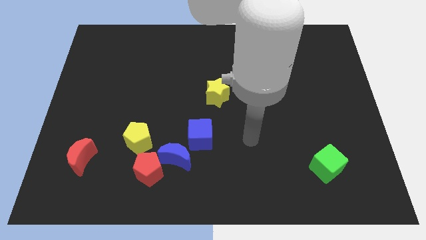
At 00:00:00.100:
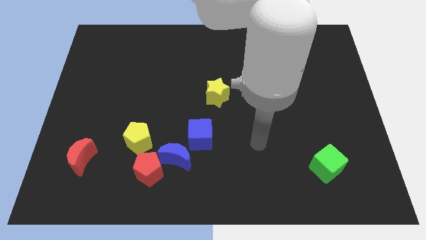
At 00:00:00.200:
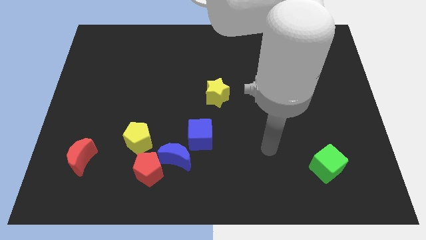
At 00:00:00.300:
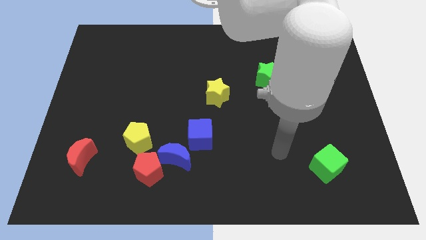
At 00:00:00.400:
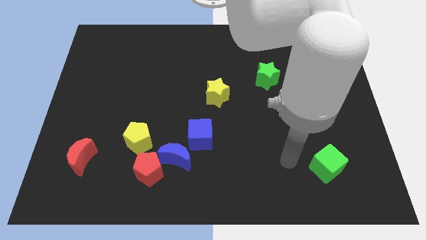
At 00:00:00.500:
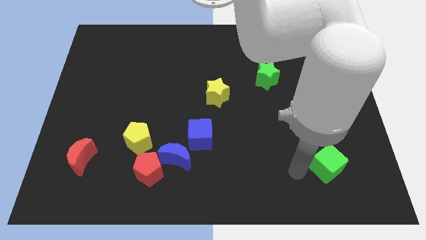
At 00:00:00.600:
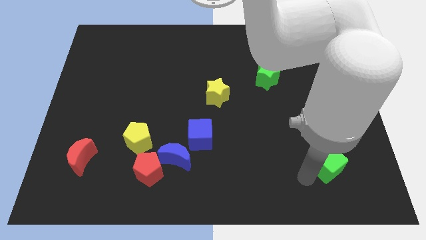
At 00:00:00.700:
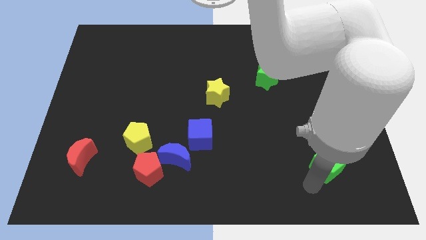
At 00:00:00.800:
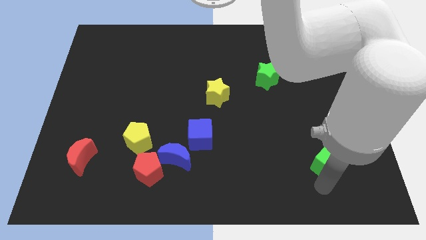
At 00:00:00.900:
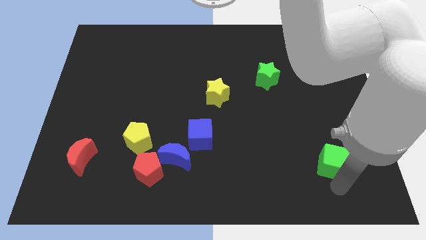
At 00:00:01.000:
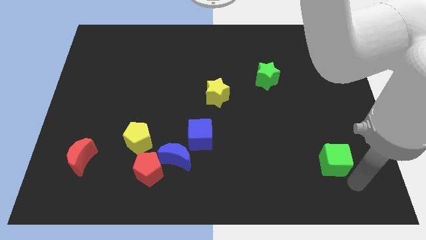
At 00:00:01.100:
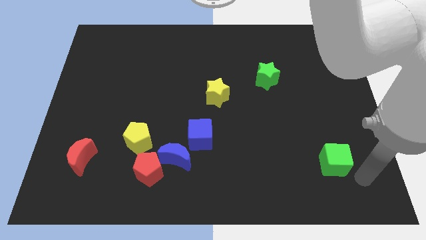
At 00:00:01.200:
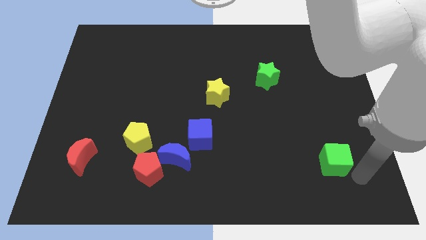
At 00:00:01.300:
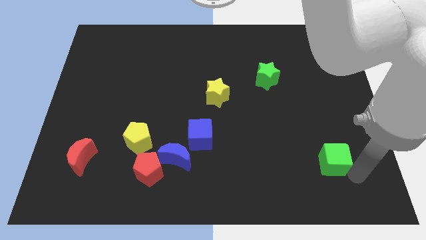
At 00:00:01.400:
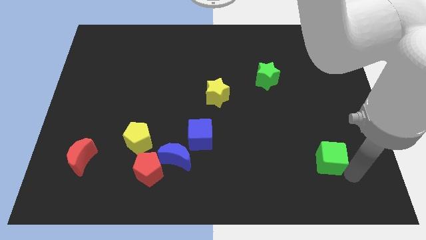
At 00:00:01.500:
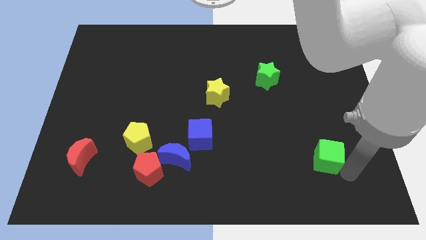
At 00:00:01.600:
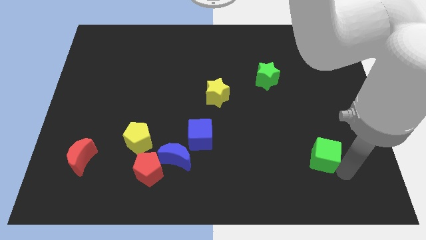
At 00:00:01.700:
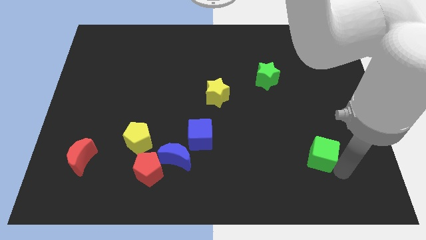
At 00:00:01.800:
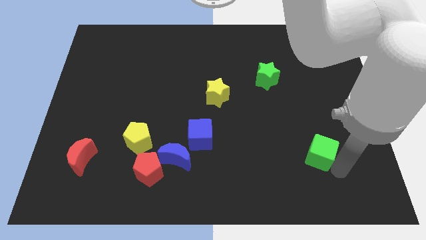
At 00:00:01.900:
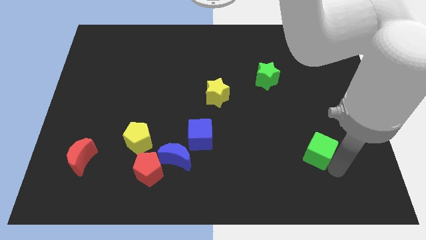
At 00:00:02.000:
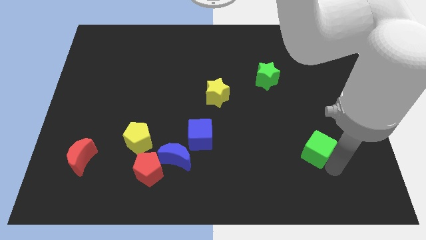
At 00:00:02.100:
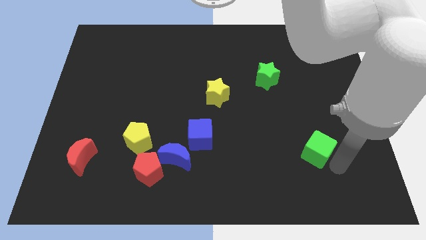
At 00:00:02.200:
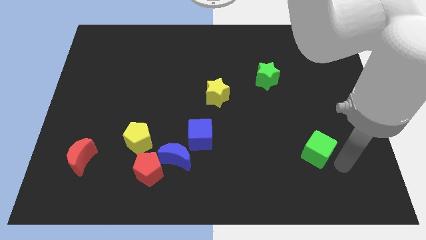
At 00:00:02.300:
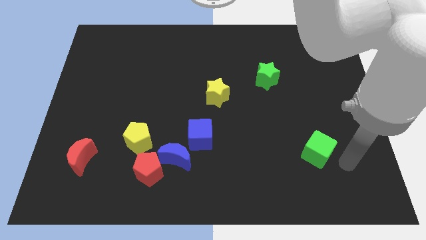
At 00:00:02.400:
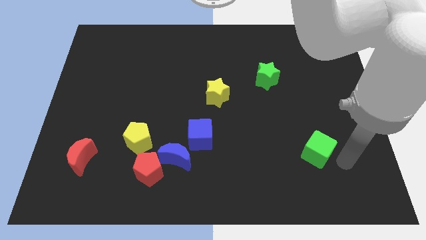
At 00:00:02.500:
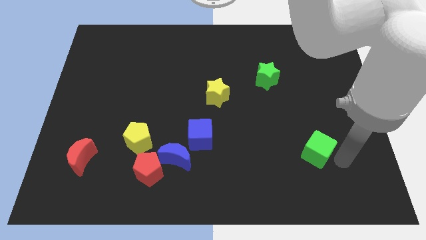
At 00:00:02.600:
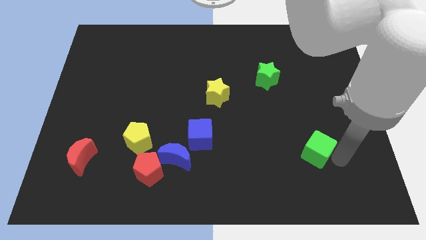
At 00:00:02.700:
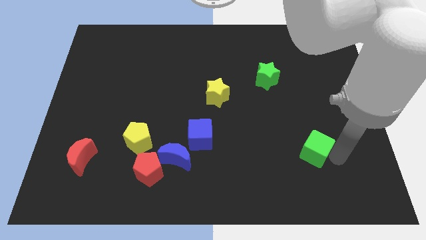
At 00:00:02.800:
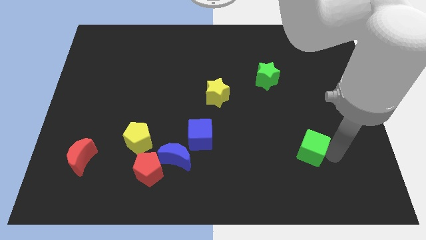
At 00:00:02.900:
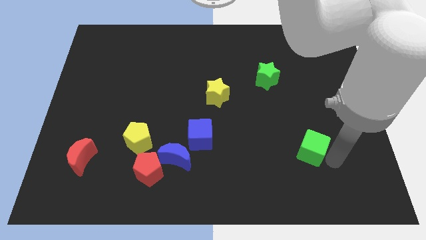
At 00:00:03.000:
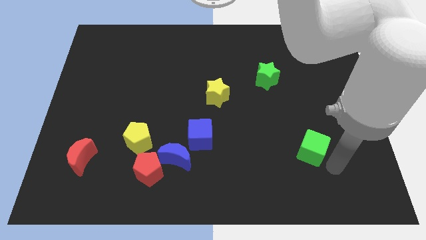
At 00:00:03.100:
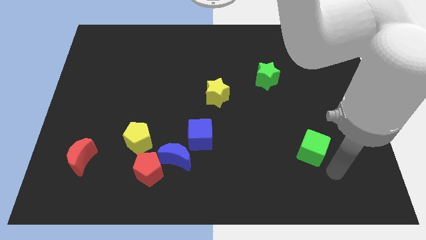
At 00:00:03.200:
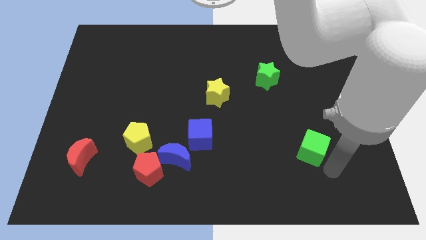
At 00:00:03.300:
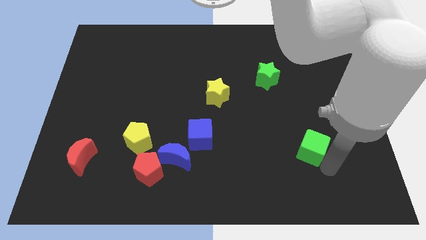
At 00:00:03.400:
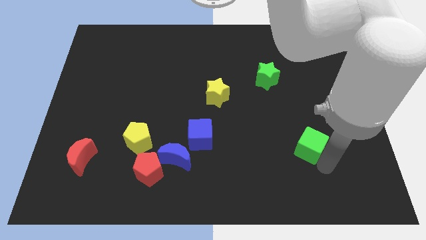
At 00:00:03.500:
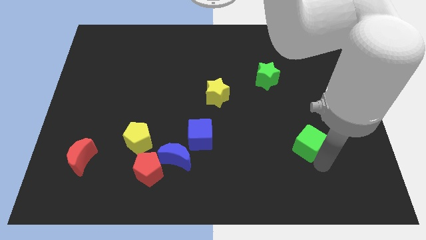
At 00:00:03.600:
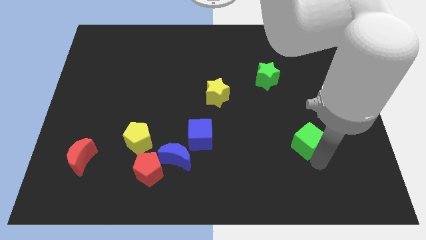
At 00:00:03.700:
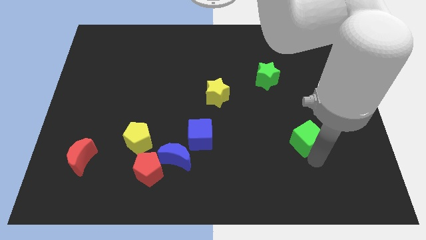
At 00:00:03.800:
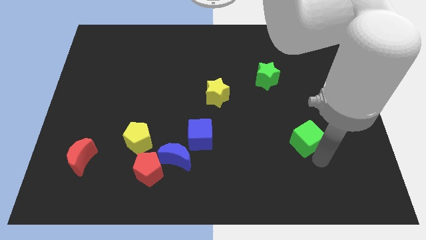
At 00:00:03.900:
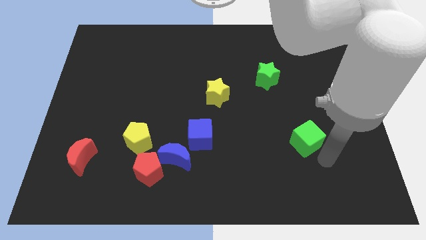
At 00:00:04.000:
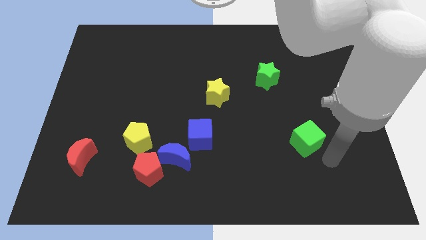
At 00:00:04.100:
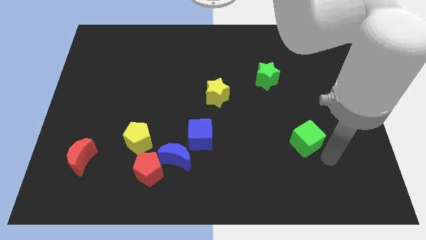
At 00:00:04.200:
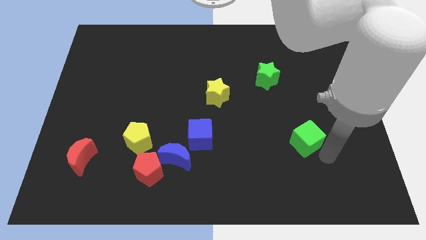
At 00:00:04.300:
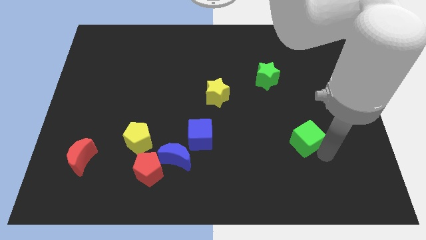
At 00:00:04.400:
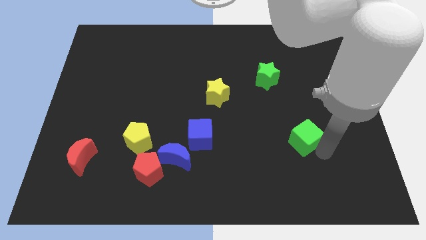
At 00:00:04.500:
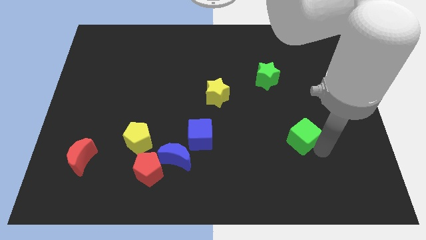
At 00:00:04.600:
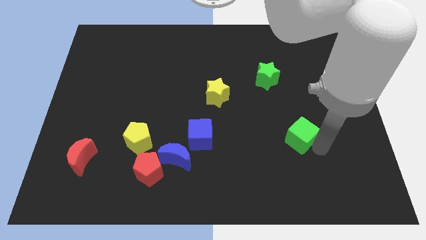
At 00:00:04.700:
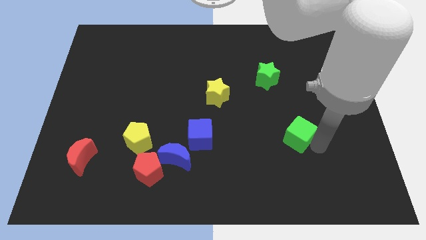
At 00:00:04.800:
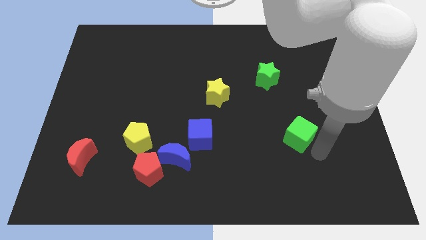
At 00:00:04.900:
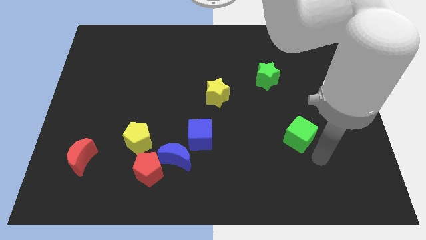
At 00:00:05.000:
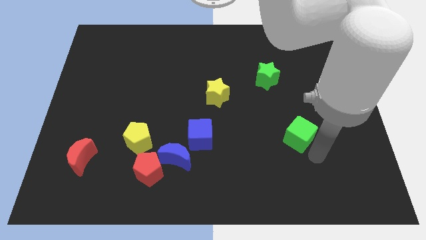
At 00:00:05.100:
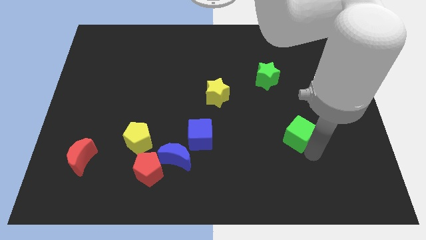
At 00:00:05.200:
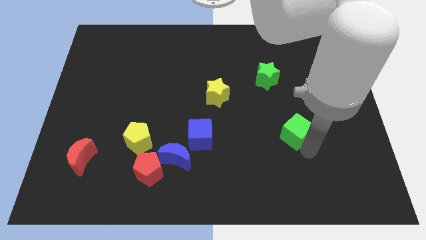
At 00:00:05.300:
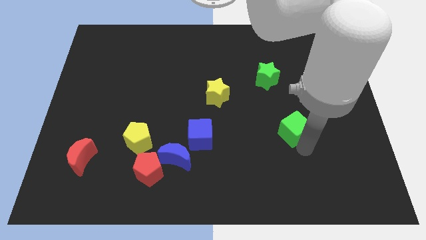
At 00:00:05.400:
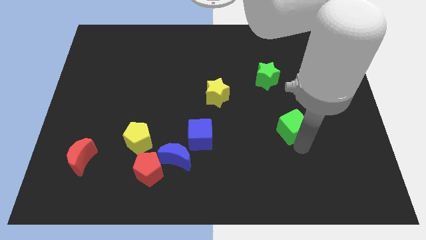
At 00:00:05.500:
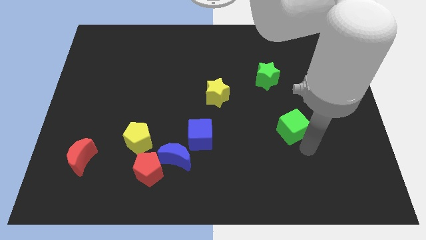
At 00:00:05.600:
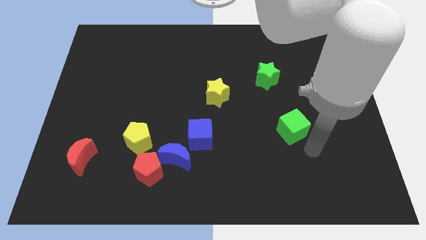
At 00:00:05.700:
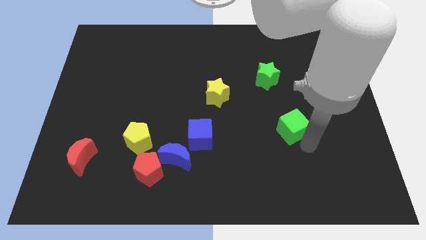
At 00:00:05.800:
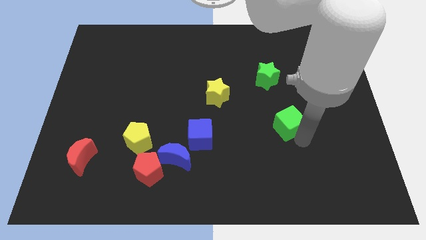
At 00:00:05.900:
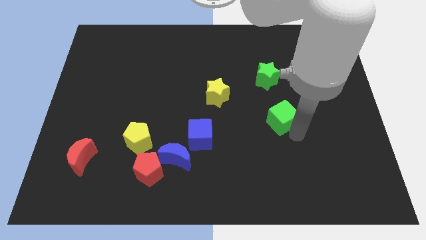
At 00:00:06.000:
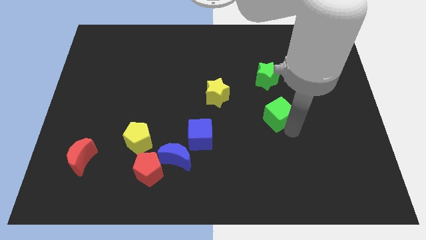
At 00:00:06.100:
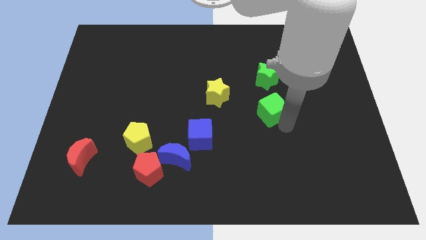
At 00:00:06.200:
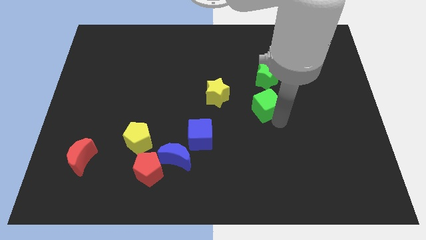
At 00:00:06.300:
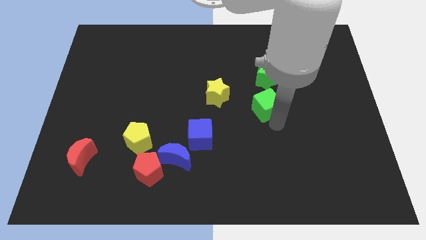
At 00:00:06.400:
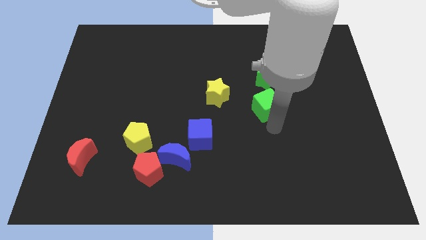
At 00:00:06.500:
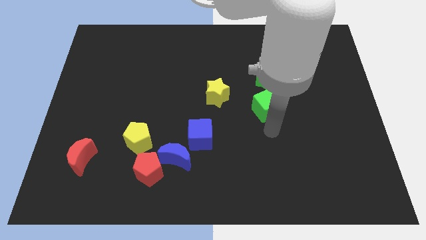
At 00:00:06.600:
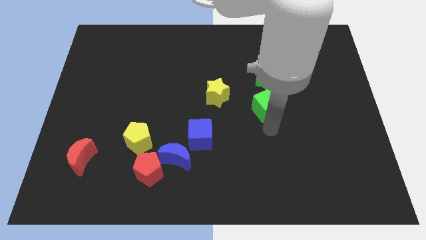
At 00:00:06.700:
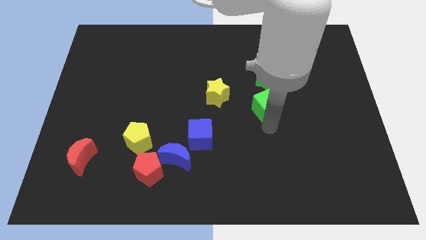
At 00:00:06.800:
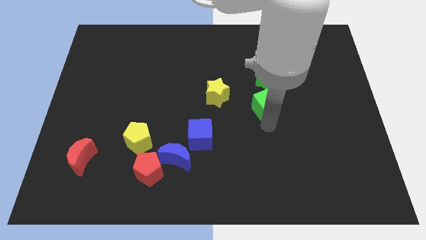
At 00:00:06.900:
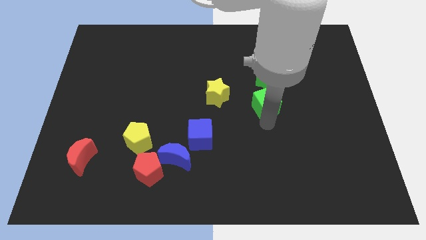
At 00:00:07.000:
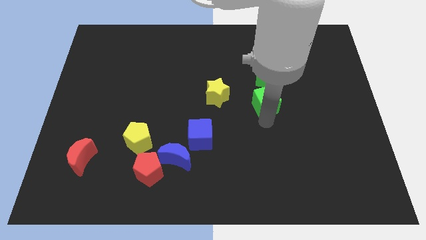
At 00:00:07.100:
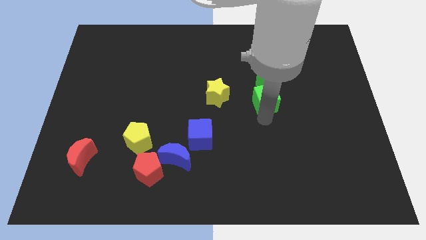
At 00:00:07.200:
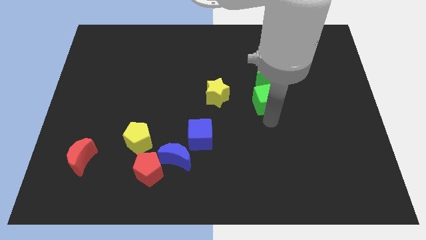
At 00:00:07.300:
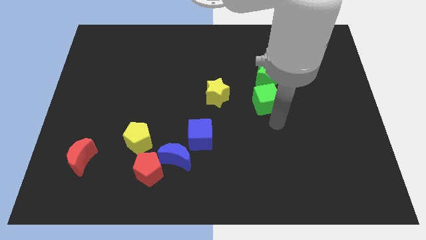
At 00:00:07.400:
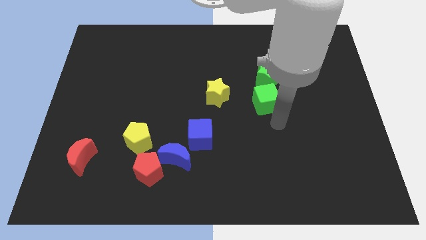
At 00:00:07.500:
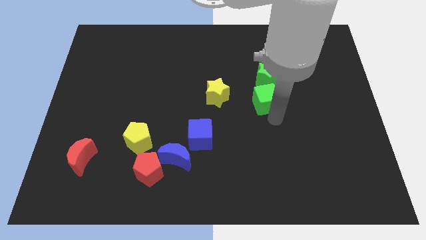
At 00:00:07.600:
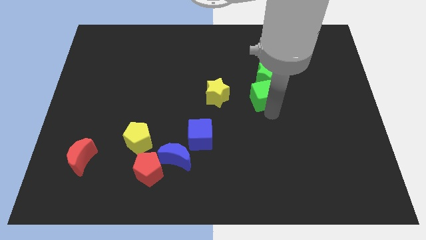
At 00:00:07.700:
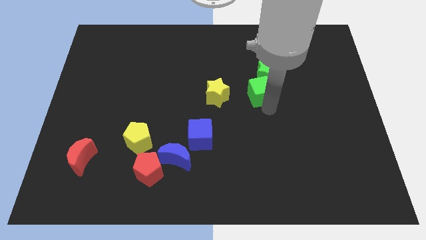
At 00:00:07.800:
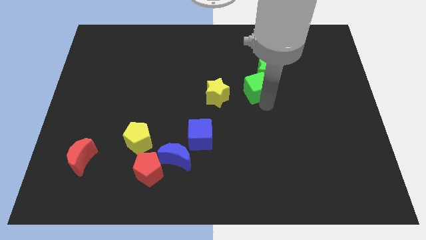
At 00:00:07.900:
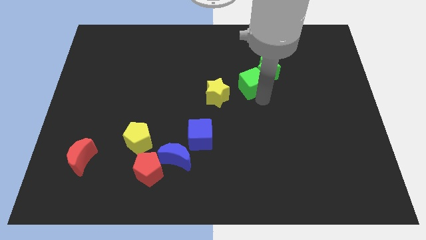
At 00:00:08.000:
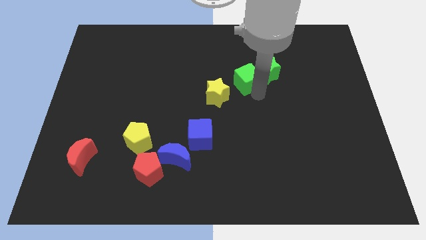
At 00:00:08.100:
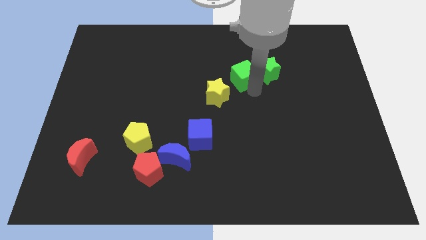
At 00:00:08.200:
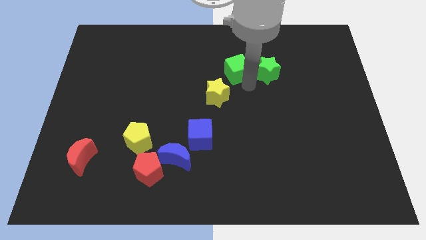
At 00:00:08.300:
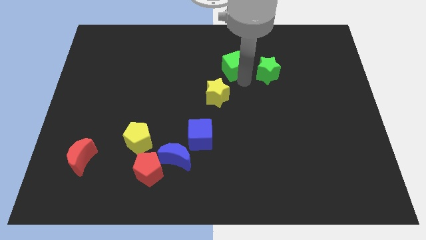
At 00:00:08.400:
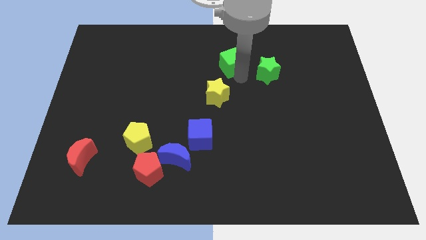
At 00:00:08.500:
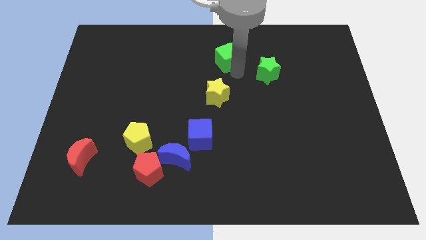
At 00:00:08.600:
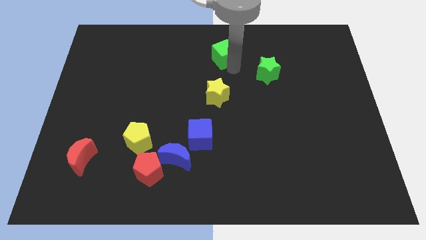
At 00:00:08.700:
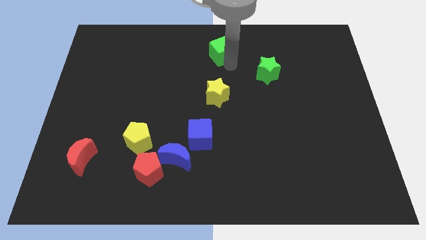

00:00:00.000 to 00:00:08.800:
put the green cube to the top
